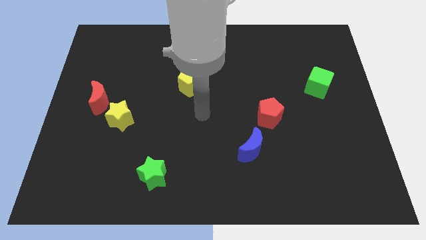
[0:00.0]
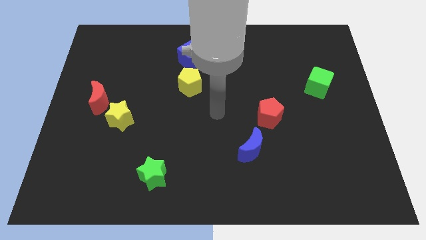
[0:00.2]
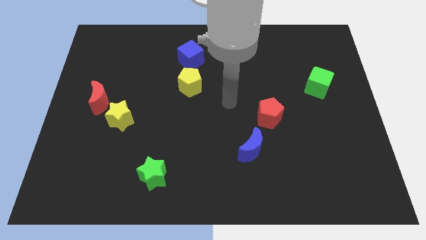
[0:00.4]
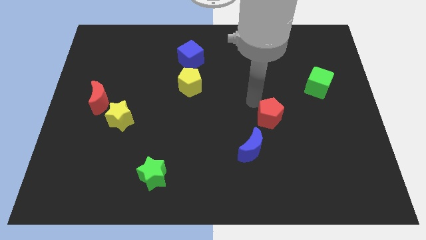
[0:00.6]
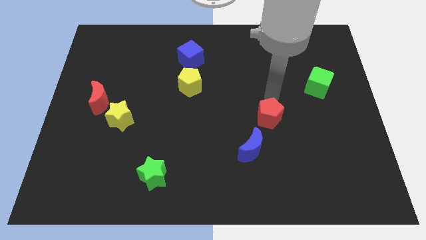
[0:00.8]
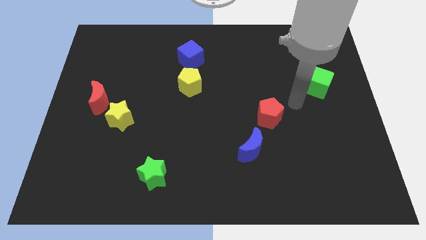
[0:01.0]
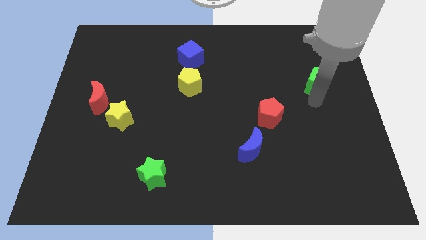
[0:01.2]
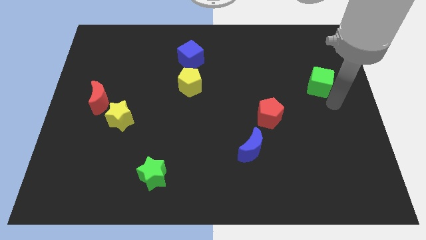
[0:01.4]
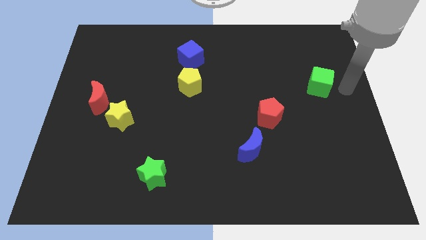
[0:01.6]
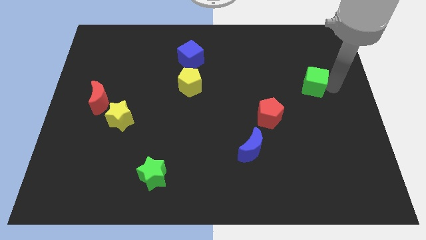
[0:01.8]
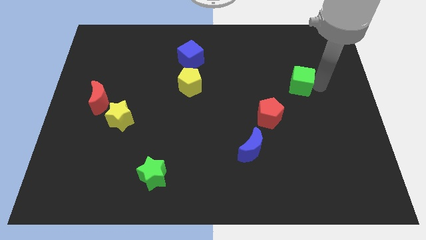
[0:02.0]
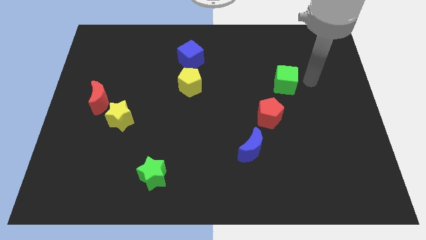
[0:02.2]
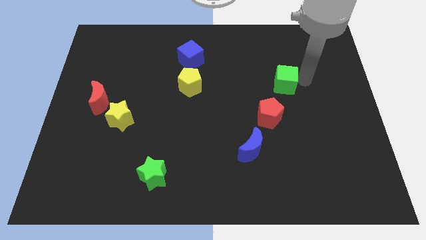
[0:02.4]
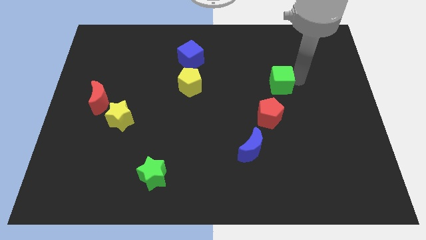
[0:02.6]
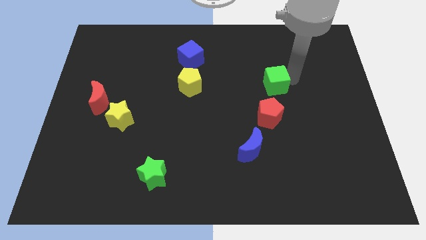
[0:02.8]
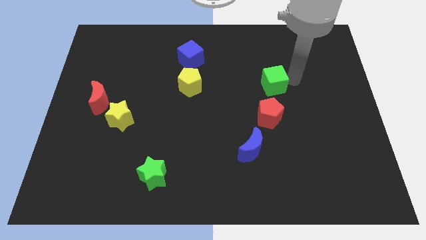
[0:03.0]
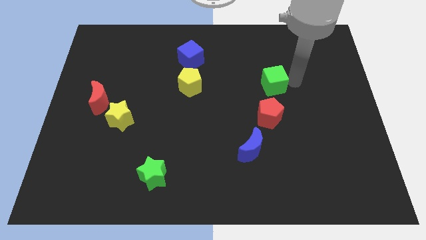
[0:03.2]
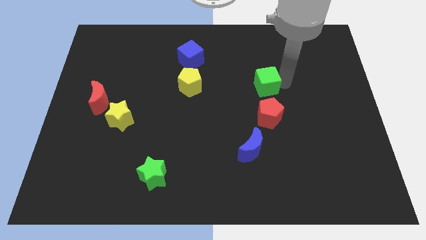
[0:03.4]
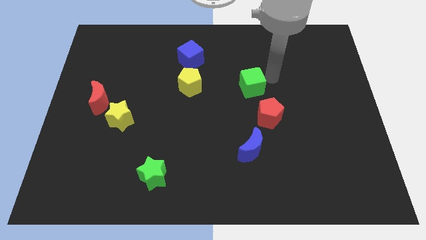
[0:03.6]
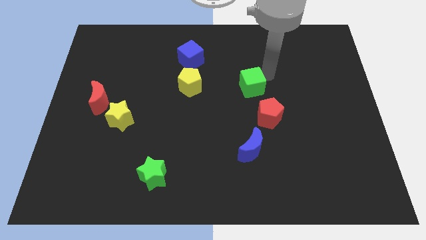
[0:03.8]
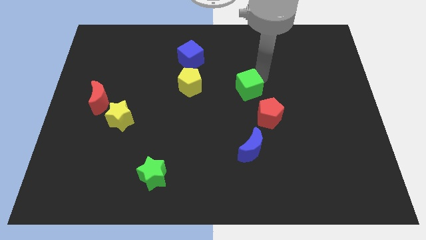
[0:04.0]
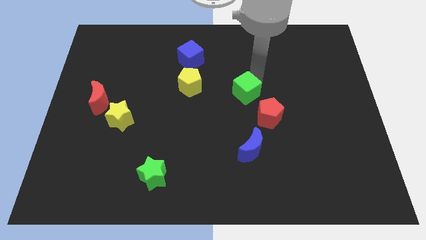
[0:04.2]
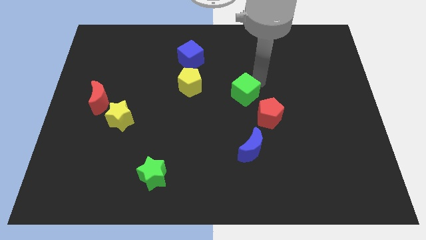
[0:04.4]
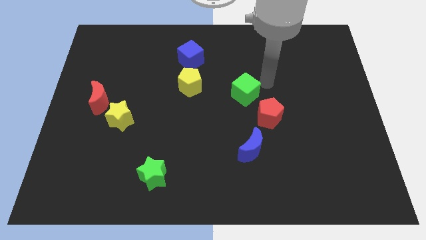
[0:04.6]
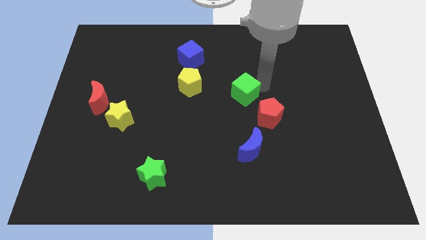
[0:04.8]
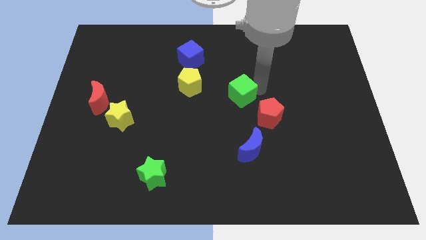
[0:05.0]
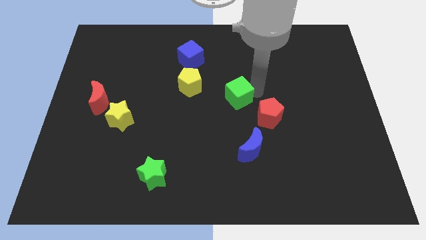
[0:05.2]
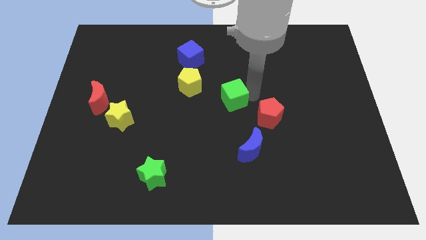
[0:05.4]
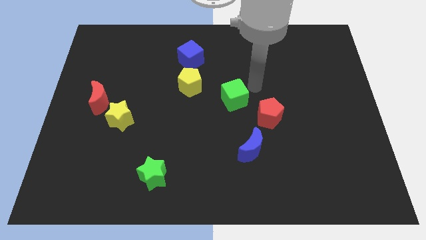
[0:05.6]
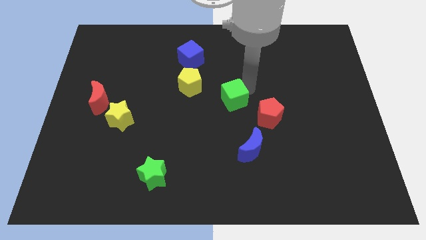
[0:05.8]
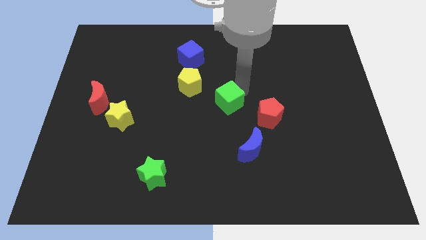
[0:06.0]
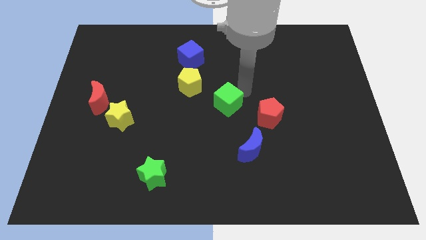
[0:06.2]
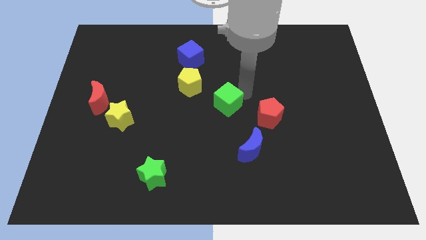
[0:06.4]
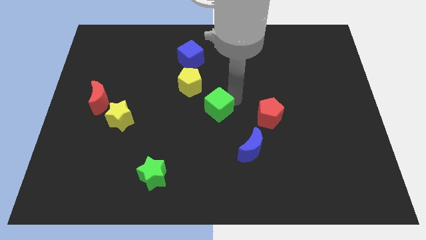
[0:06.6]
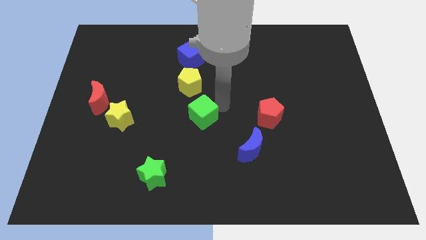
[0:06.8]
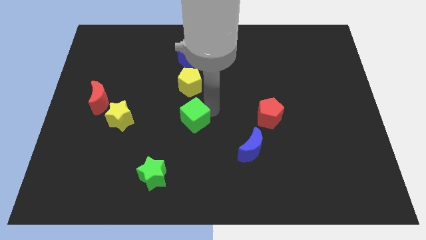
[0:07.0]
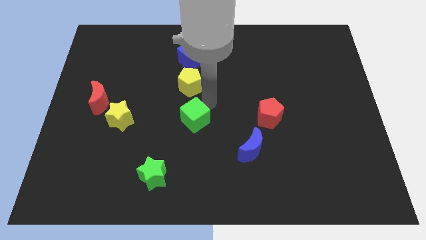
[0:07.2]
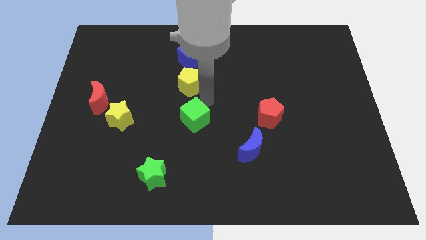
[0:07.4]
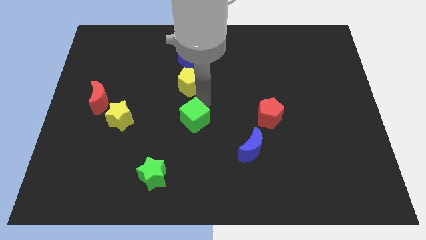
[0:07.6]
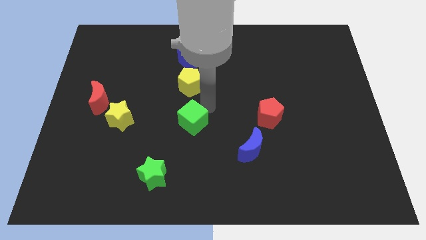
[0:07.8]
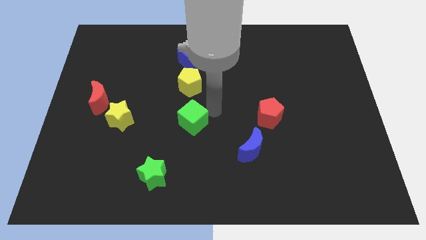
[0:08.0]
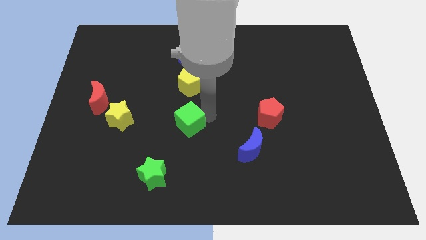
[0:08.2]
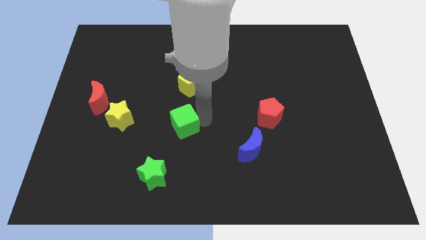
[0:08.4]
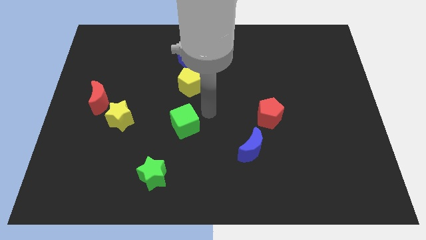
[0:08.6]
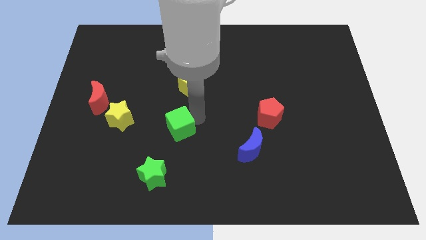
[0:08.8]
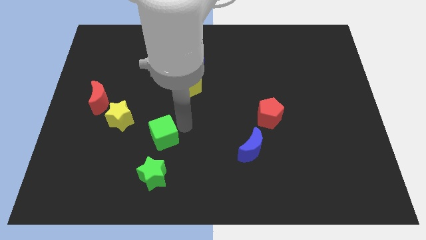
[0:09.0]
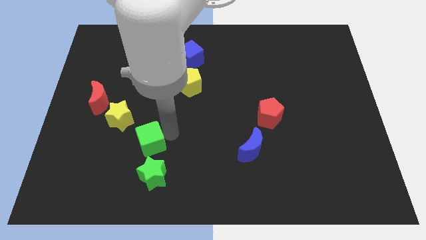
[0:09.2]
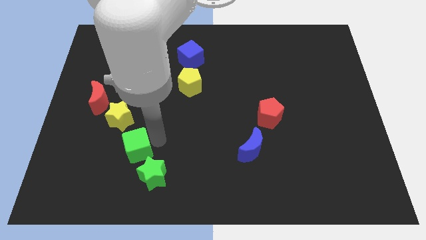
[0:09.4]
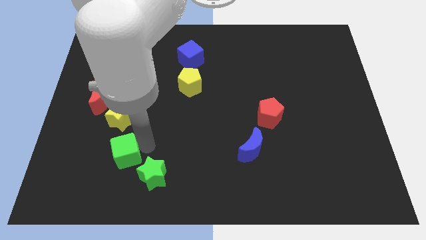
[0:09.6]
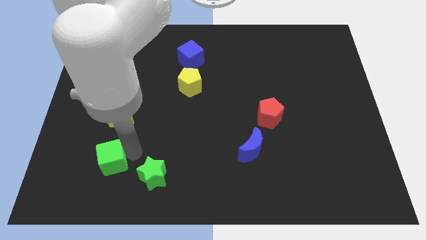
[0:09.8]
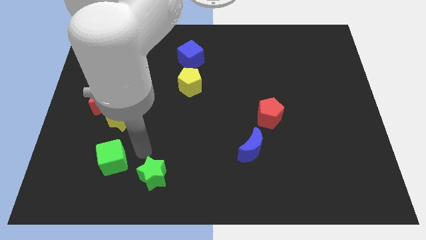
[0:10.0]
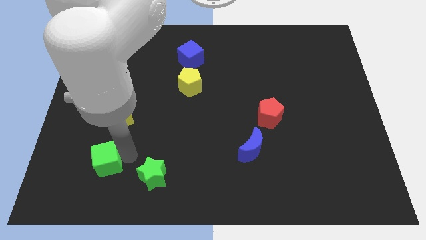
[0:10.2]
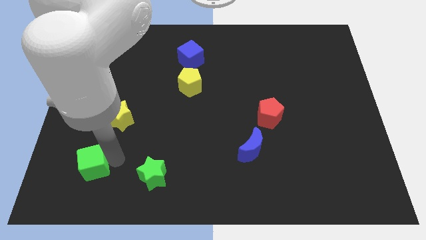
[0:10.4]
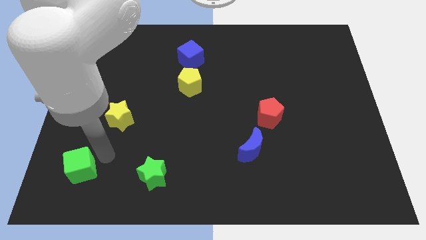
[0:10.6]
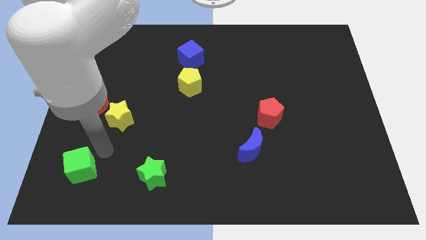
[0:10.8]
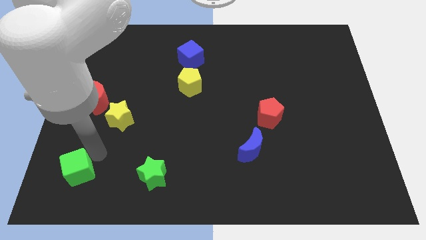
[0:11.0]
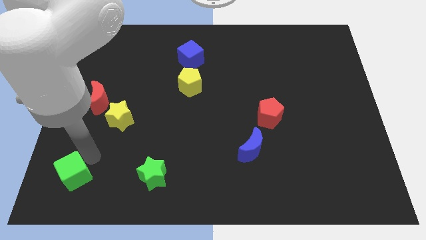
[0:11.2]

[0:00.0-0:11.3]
put the green cube to the bottom left of the board

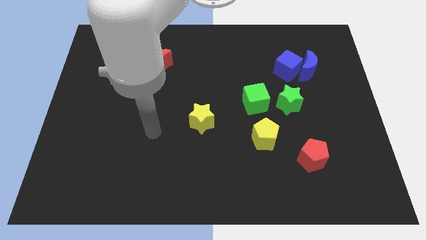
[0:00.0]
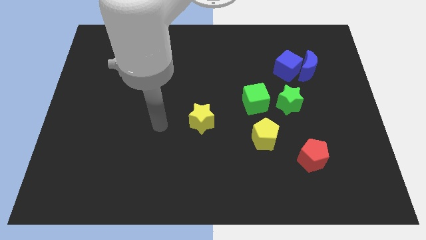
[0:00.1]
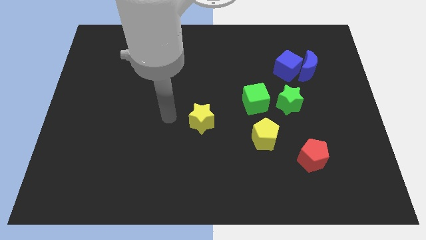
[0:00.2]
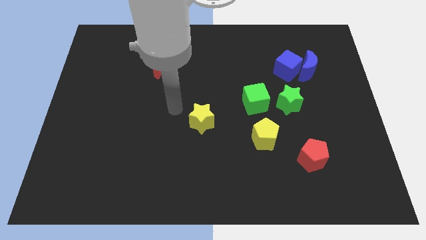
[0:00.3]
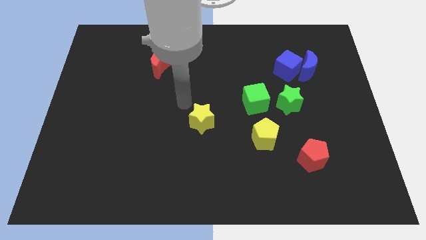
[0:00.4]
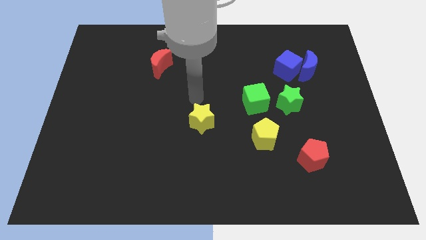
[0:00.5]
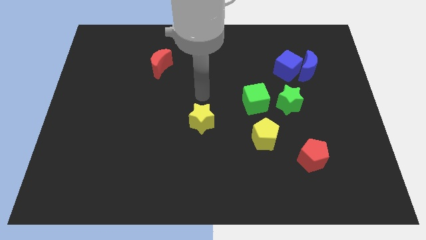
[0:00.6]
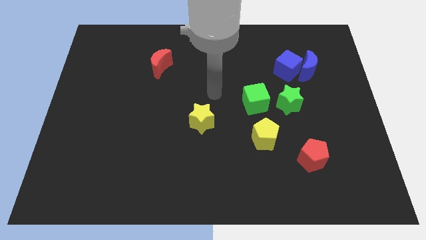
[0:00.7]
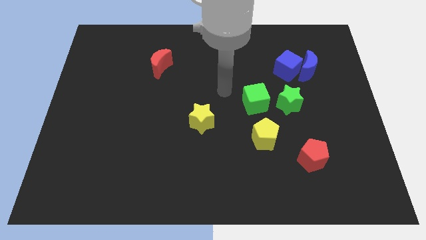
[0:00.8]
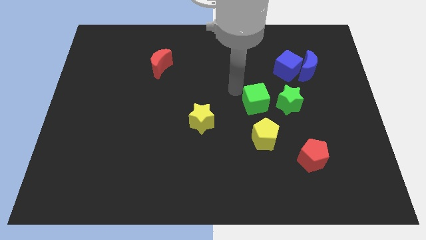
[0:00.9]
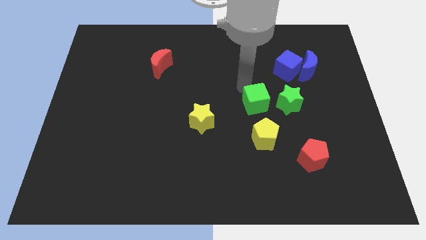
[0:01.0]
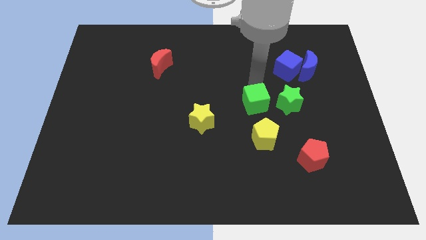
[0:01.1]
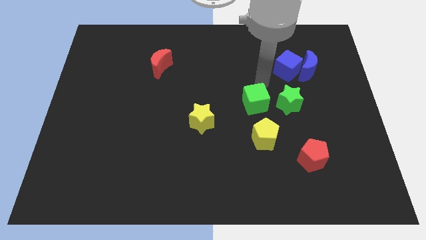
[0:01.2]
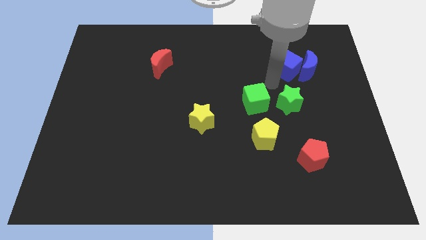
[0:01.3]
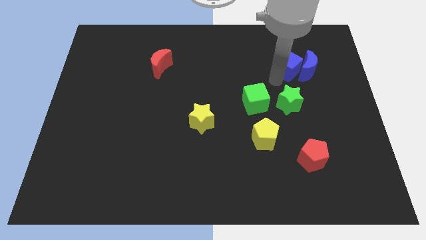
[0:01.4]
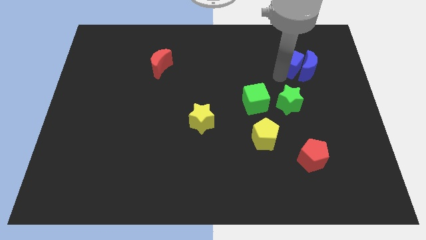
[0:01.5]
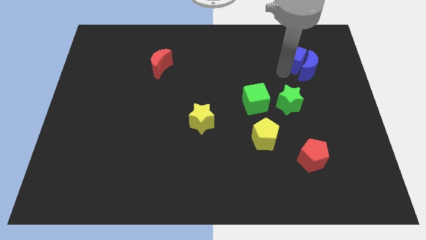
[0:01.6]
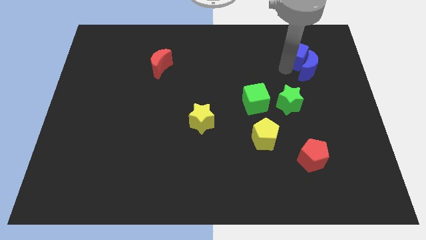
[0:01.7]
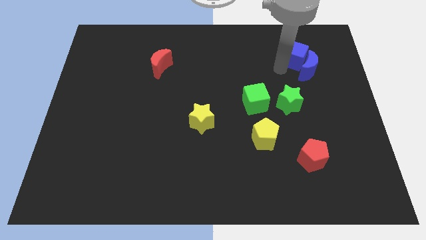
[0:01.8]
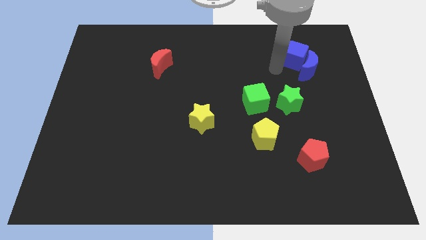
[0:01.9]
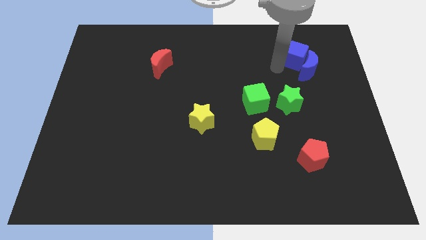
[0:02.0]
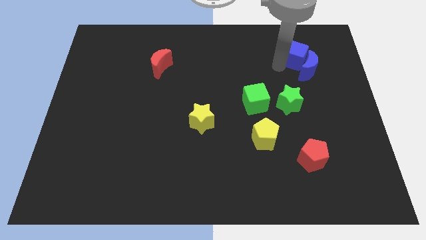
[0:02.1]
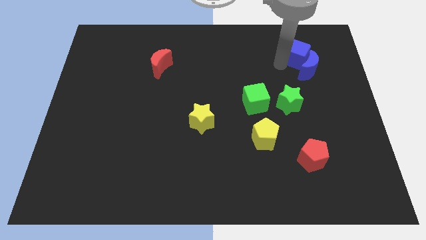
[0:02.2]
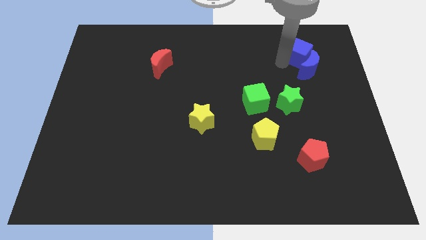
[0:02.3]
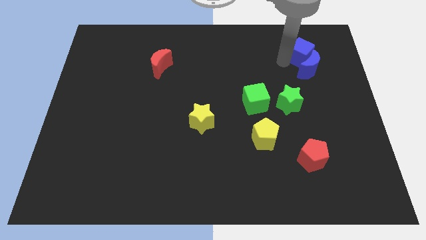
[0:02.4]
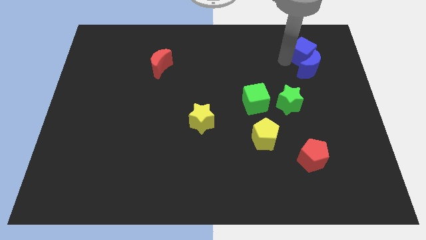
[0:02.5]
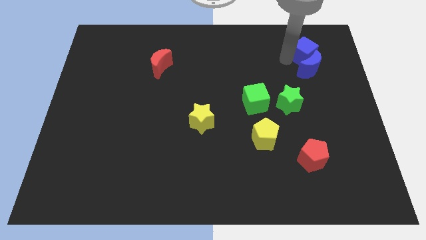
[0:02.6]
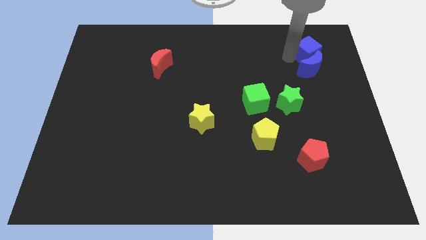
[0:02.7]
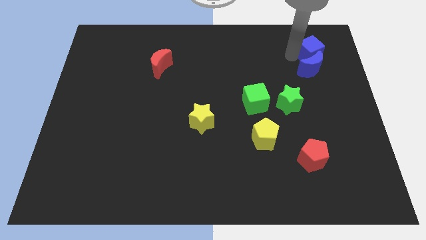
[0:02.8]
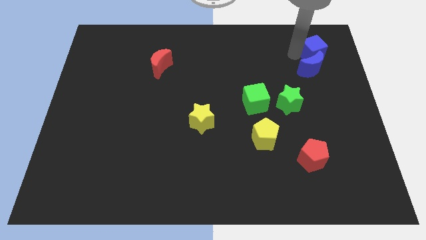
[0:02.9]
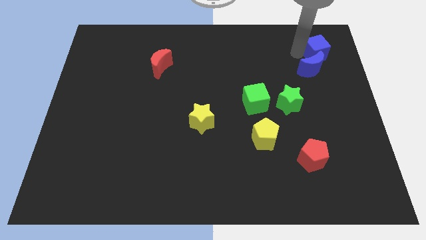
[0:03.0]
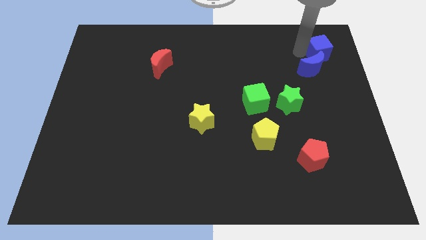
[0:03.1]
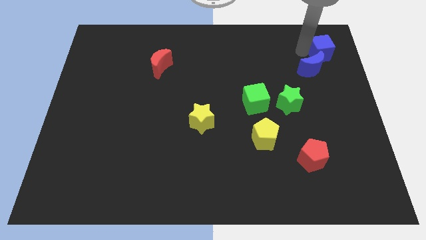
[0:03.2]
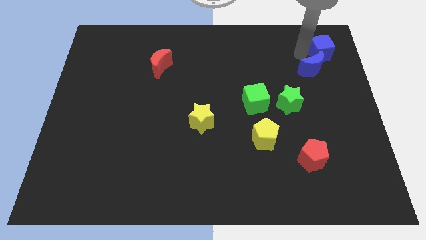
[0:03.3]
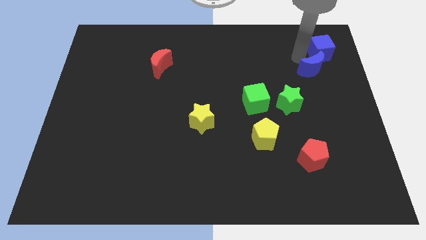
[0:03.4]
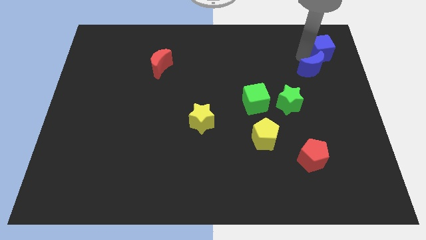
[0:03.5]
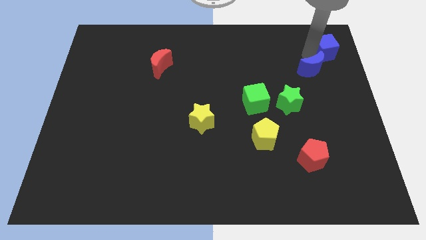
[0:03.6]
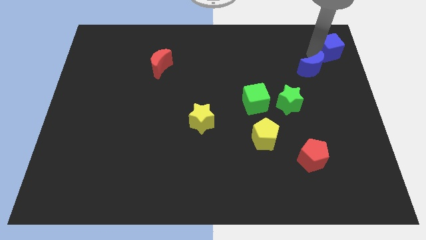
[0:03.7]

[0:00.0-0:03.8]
move the blue cube to the upper right corner
